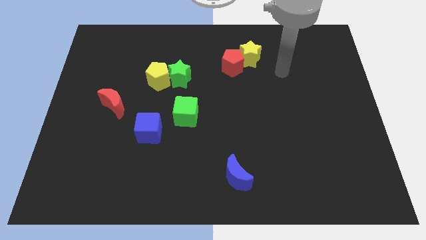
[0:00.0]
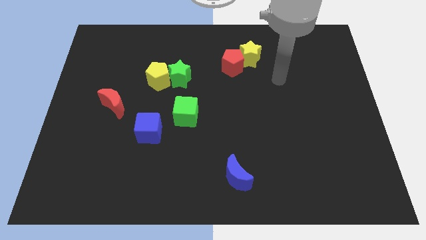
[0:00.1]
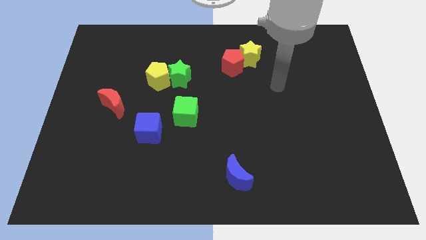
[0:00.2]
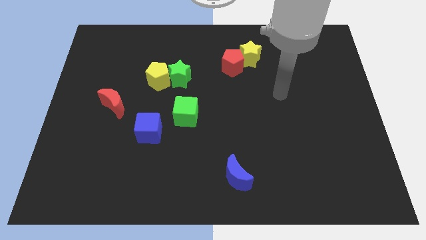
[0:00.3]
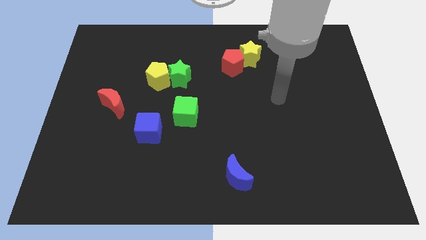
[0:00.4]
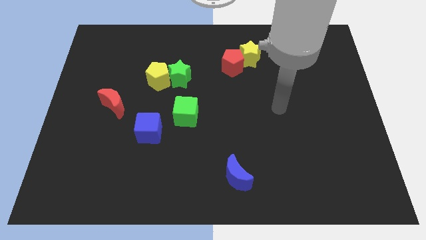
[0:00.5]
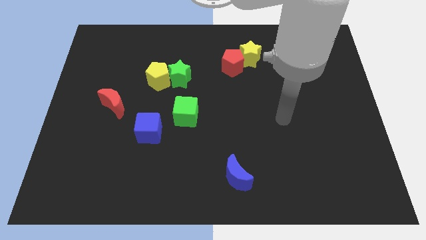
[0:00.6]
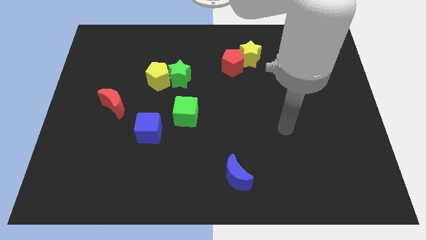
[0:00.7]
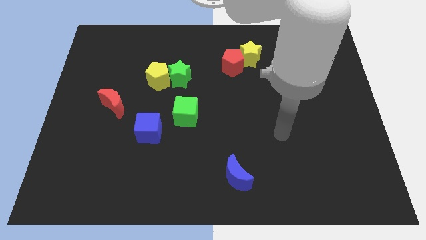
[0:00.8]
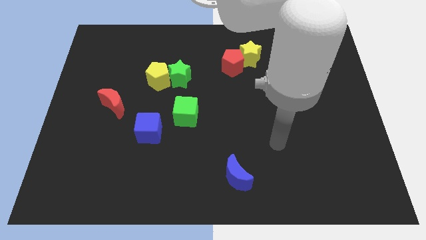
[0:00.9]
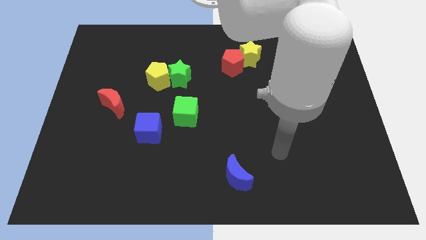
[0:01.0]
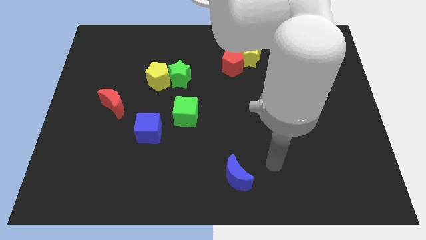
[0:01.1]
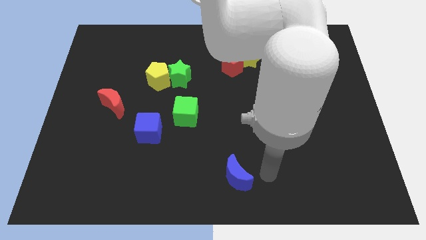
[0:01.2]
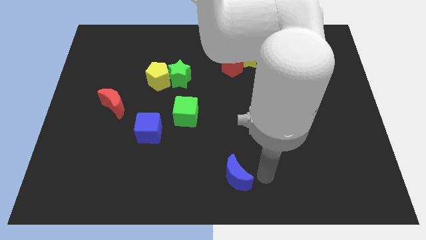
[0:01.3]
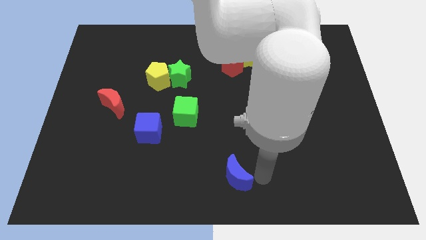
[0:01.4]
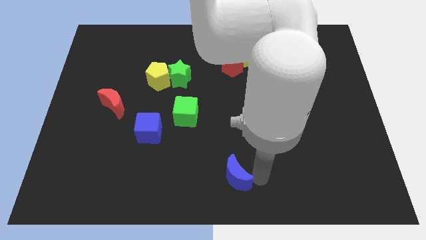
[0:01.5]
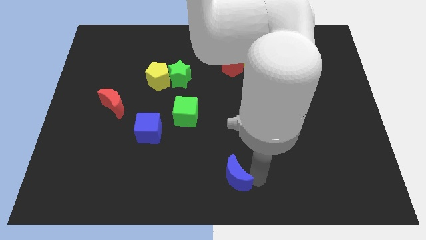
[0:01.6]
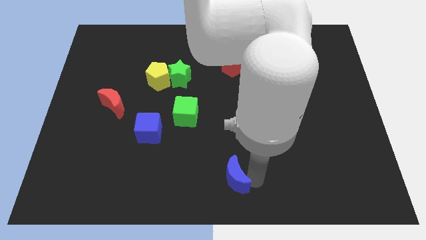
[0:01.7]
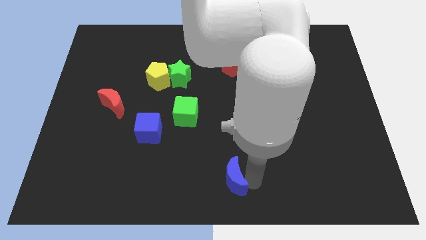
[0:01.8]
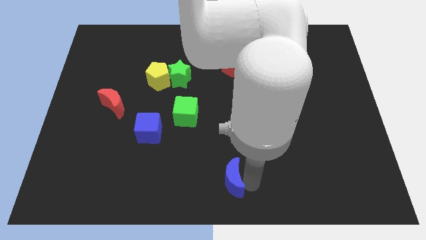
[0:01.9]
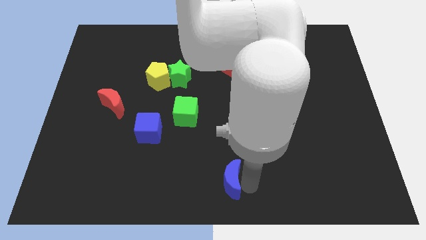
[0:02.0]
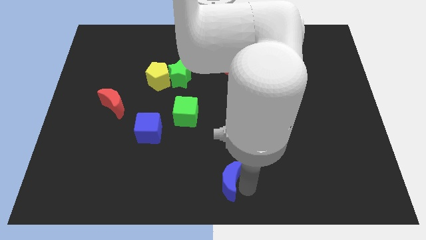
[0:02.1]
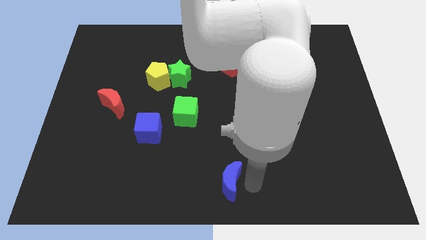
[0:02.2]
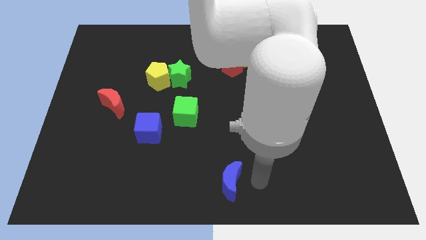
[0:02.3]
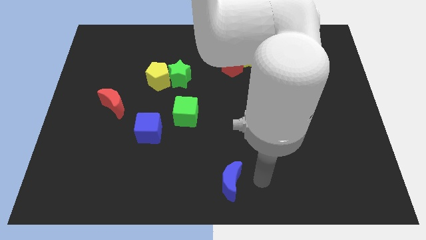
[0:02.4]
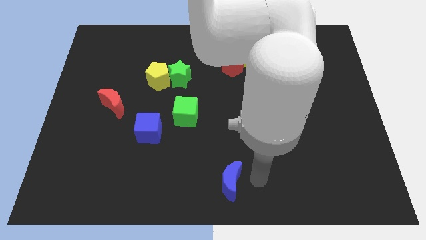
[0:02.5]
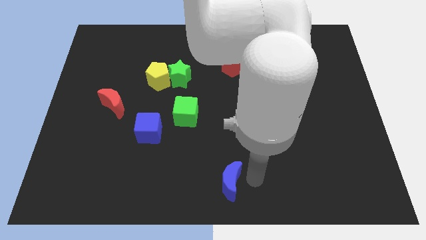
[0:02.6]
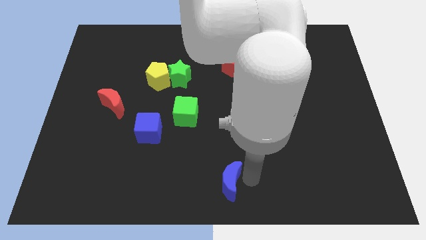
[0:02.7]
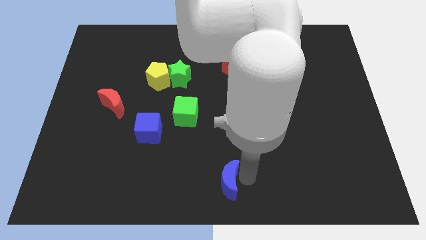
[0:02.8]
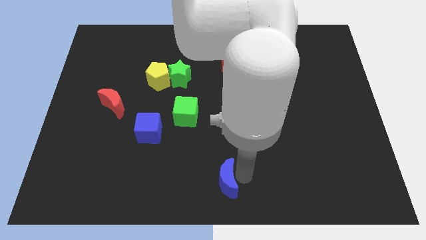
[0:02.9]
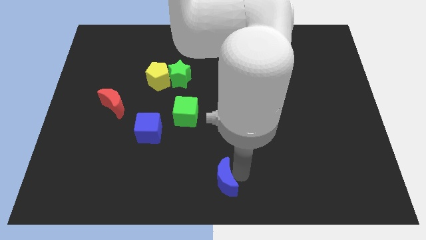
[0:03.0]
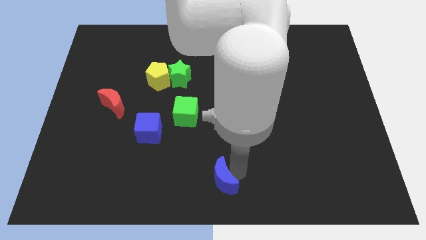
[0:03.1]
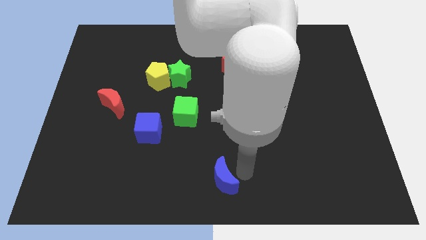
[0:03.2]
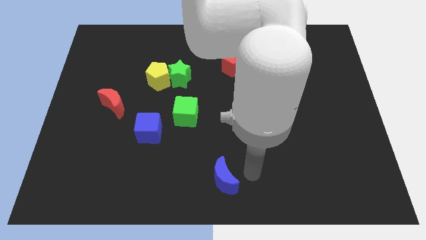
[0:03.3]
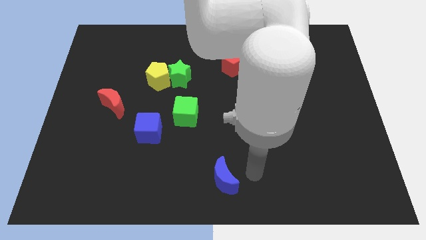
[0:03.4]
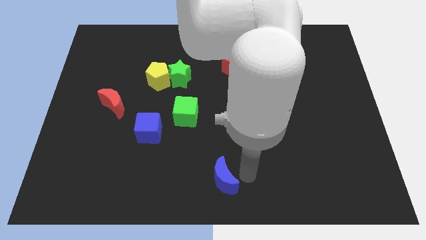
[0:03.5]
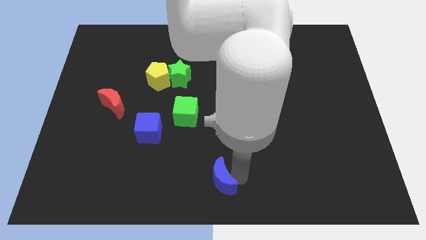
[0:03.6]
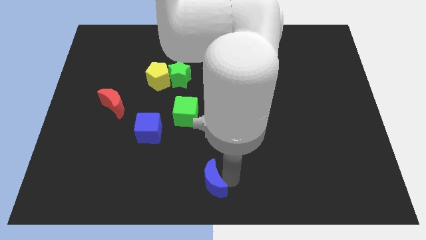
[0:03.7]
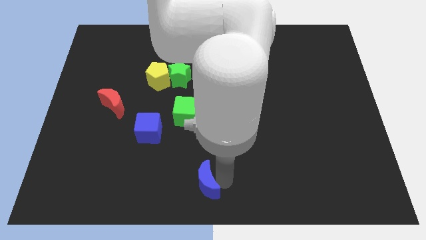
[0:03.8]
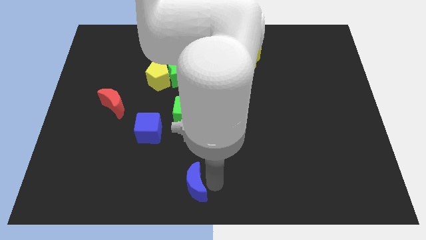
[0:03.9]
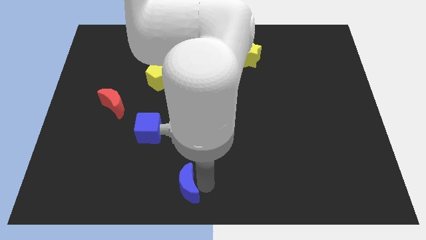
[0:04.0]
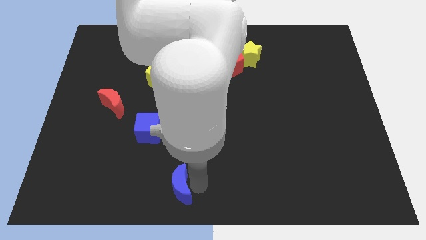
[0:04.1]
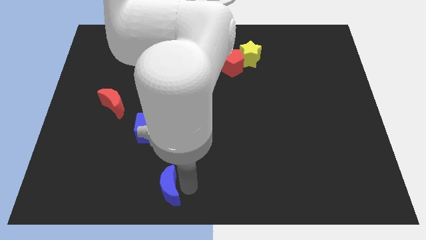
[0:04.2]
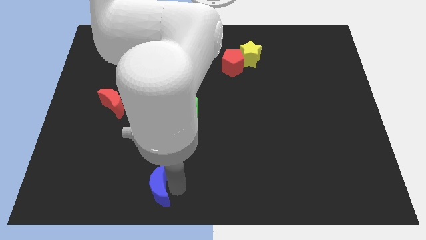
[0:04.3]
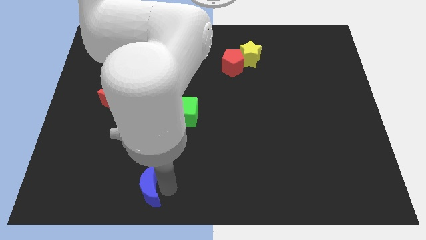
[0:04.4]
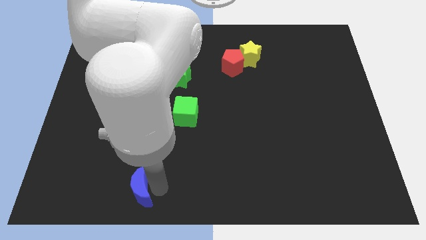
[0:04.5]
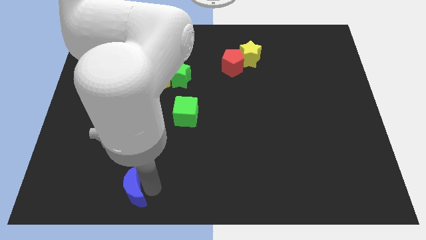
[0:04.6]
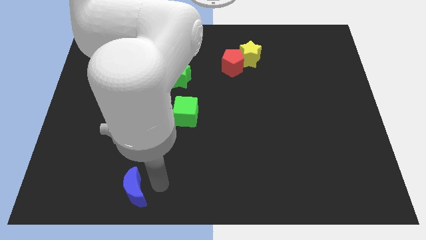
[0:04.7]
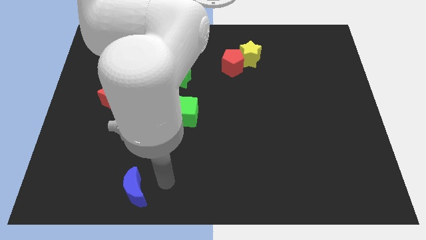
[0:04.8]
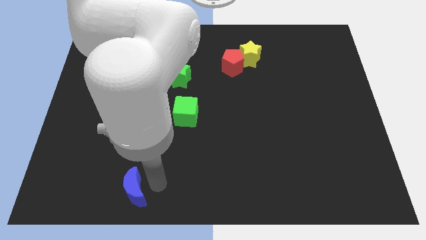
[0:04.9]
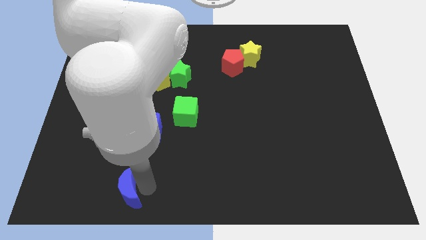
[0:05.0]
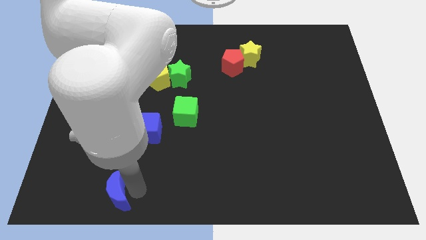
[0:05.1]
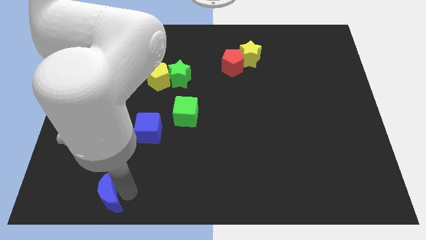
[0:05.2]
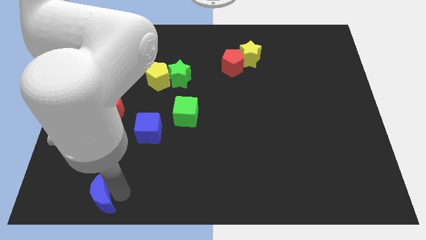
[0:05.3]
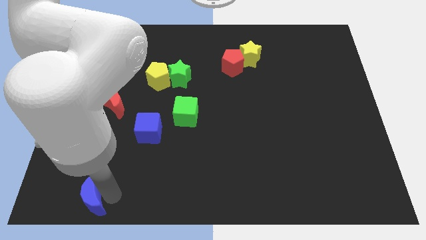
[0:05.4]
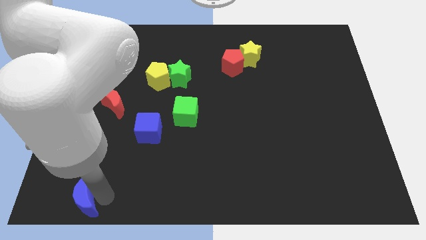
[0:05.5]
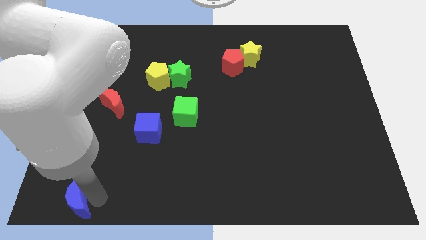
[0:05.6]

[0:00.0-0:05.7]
move the blue moon to the bottom left of the board

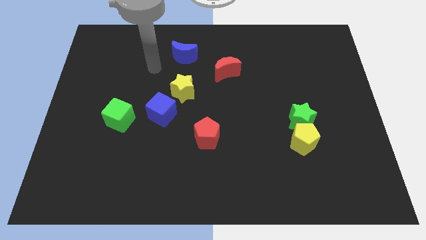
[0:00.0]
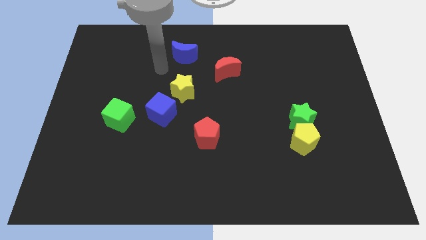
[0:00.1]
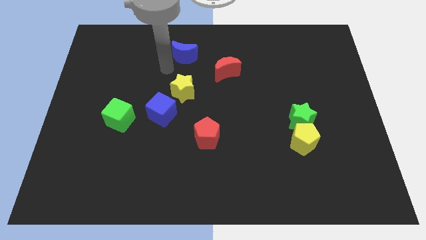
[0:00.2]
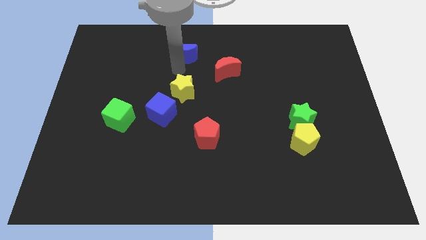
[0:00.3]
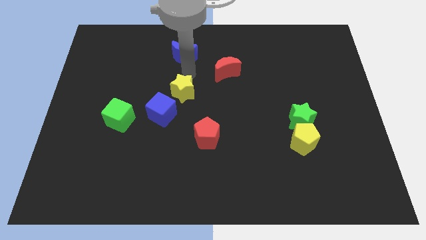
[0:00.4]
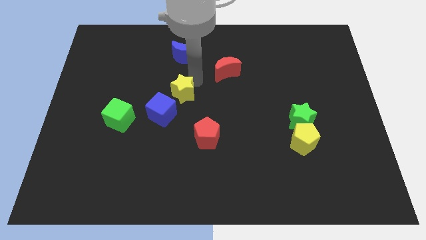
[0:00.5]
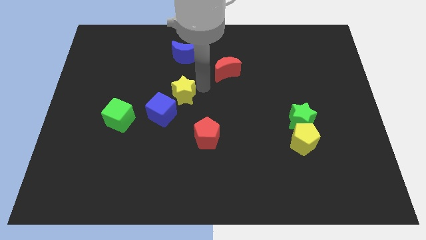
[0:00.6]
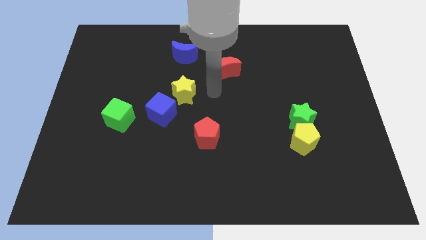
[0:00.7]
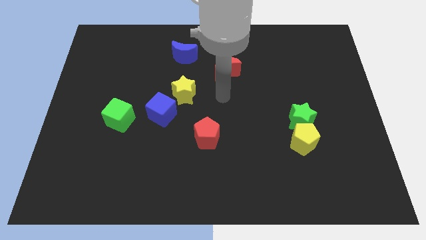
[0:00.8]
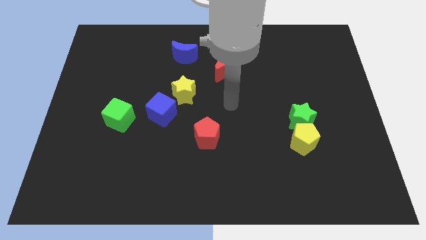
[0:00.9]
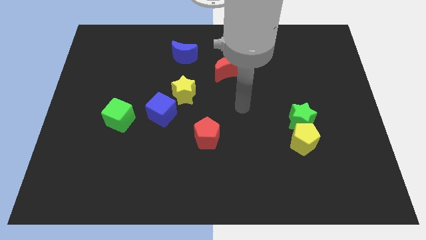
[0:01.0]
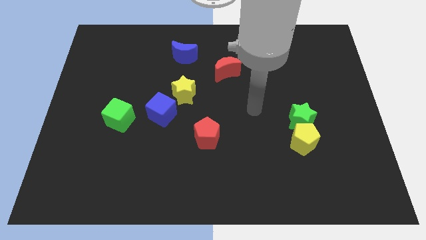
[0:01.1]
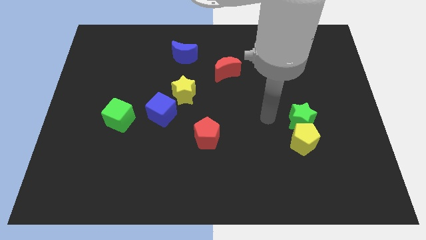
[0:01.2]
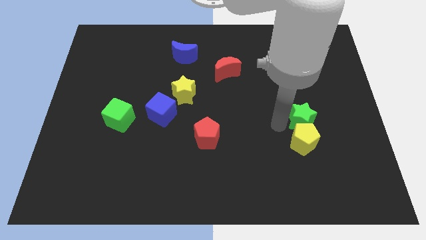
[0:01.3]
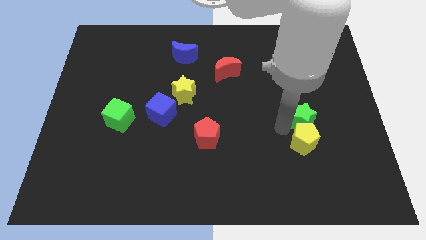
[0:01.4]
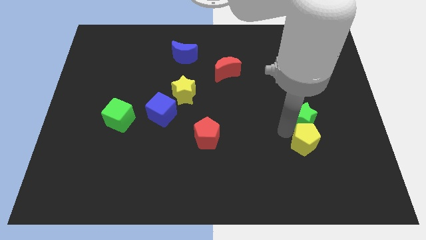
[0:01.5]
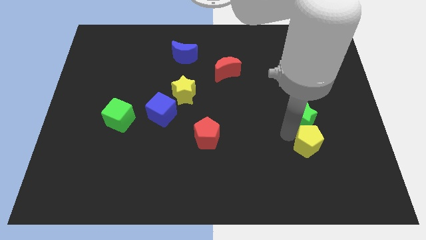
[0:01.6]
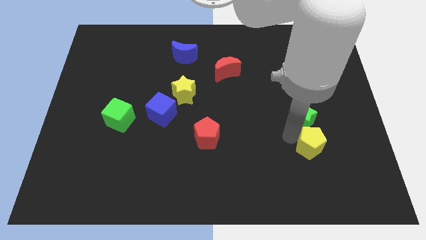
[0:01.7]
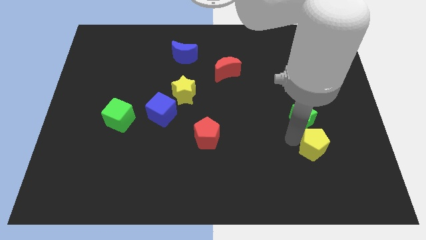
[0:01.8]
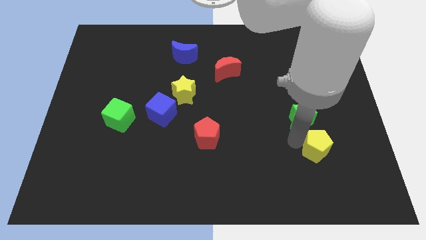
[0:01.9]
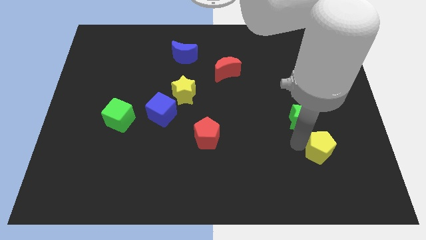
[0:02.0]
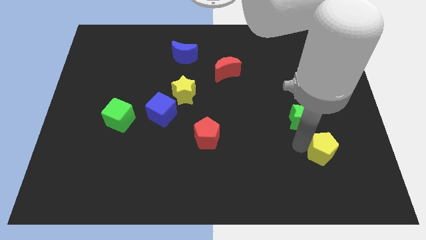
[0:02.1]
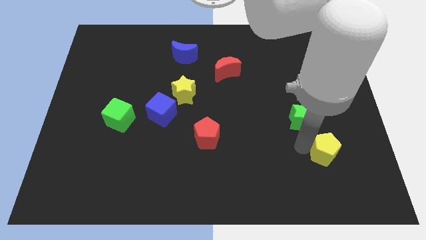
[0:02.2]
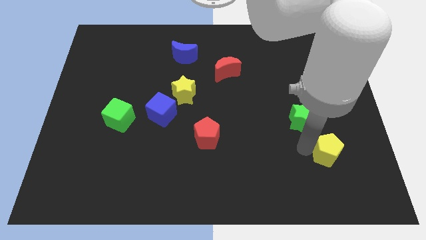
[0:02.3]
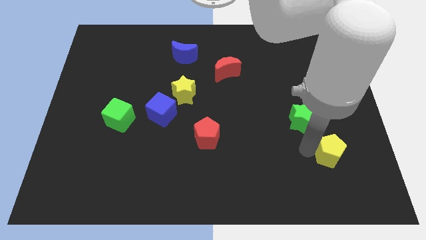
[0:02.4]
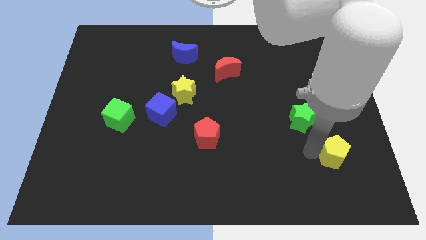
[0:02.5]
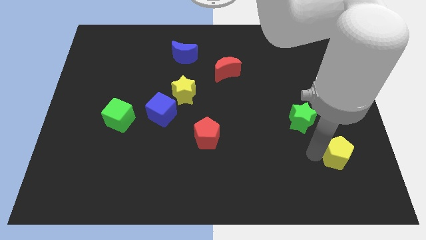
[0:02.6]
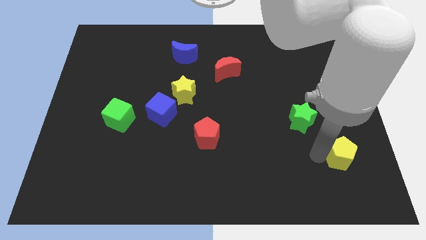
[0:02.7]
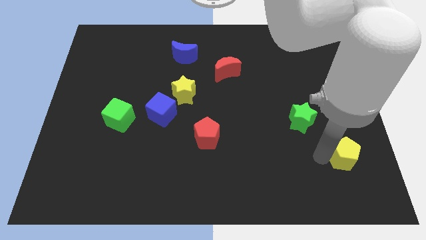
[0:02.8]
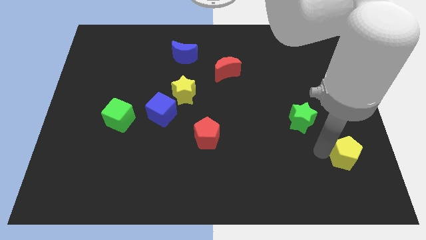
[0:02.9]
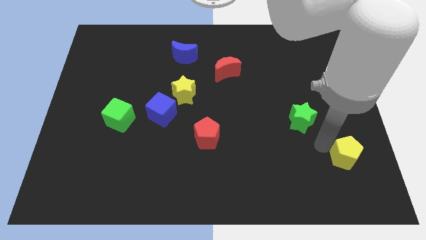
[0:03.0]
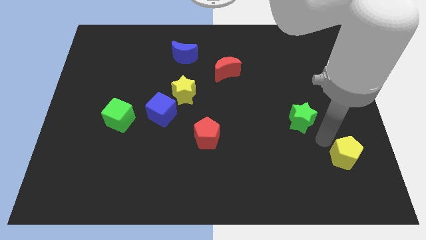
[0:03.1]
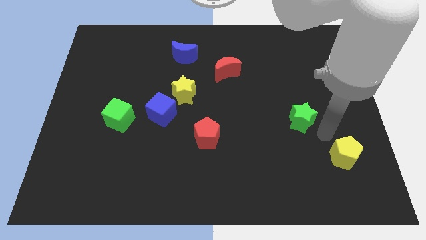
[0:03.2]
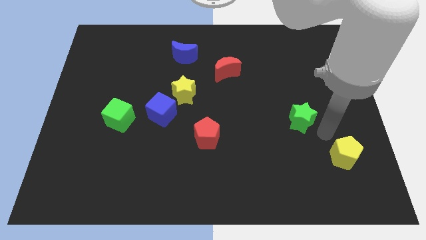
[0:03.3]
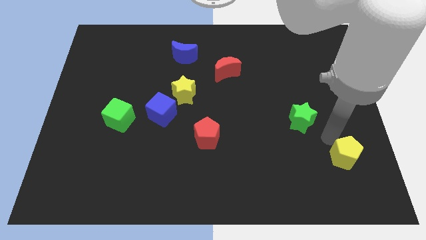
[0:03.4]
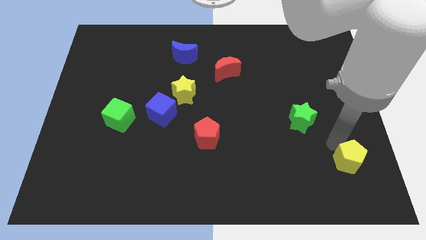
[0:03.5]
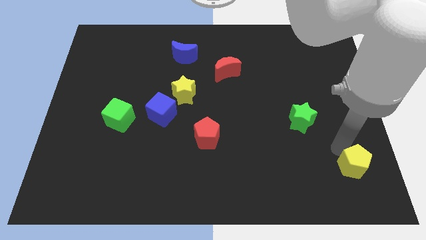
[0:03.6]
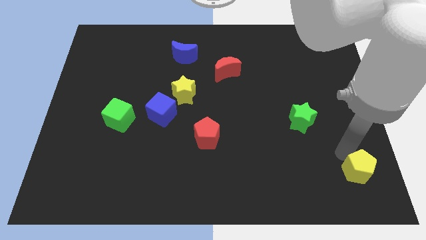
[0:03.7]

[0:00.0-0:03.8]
move the yellow pentagon to the bottom right corner
